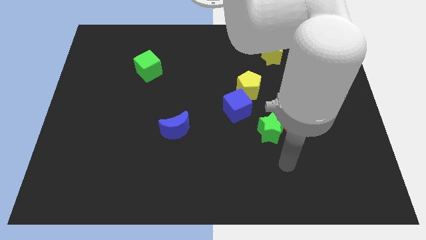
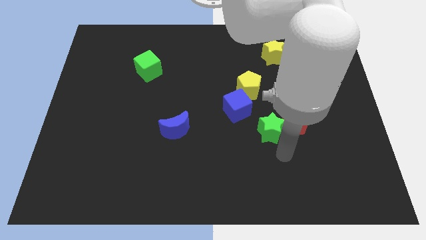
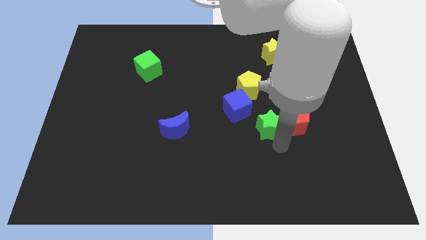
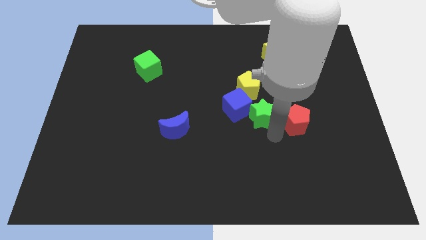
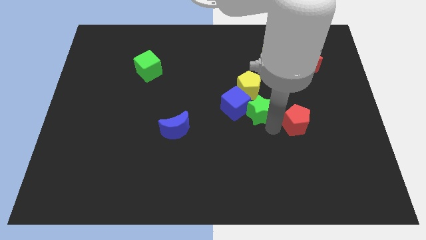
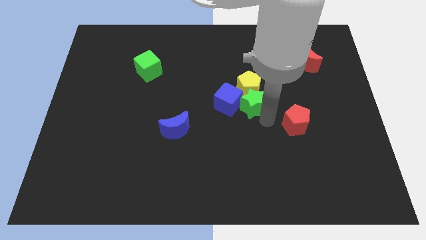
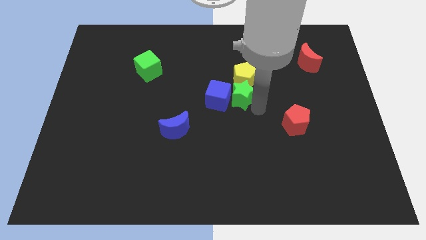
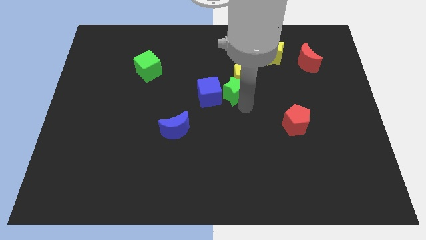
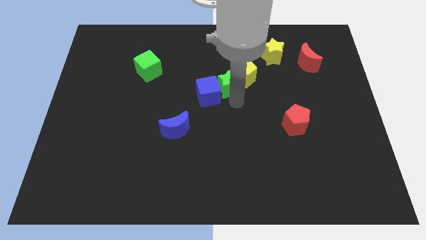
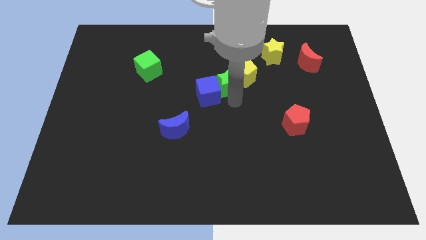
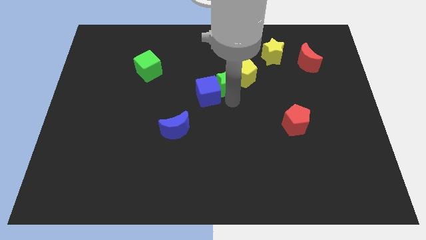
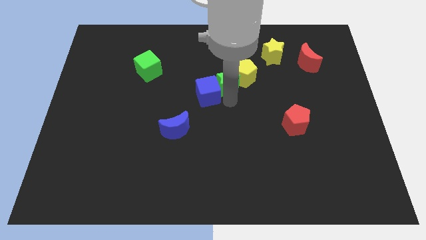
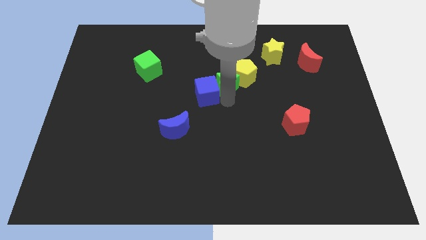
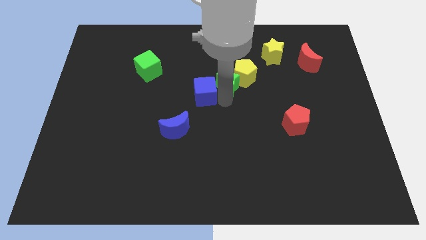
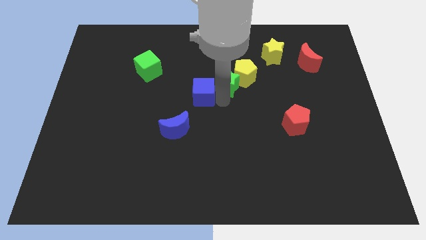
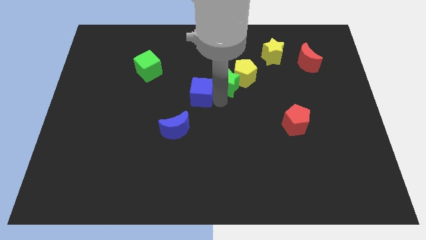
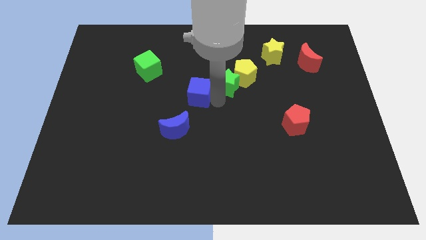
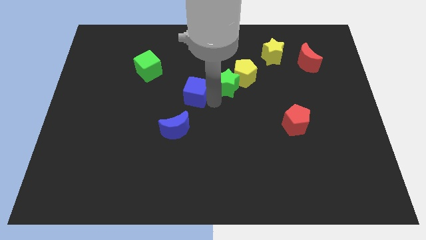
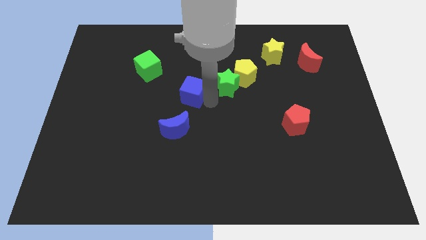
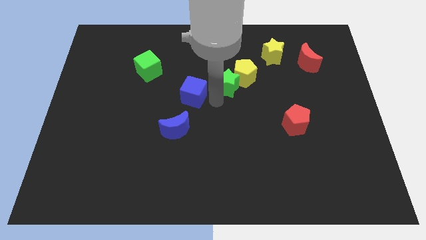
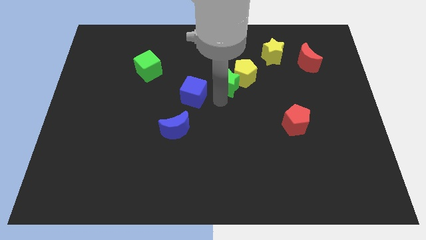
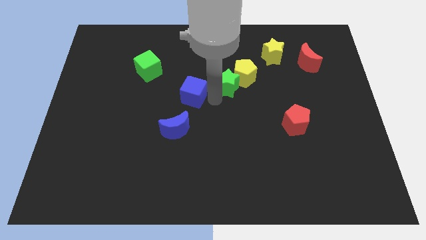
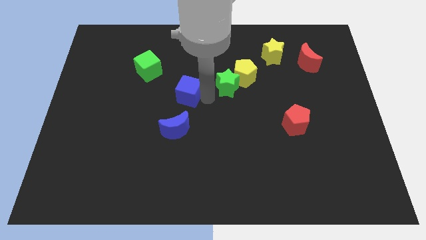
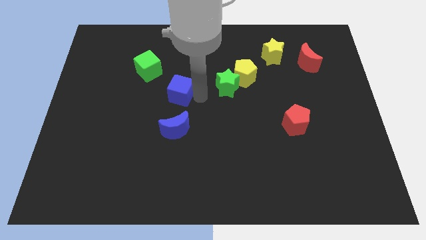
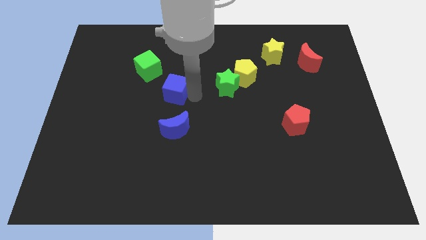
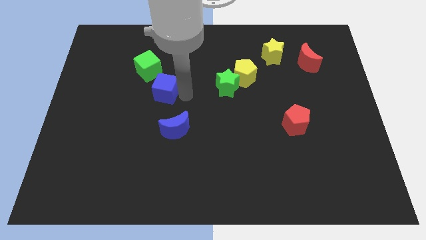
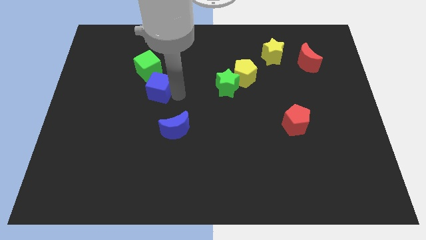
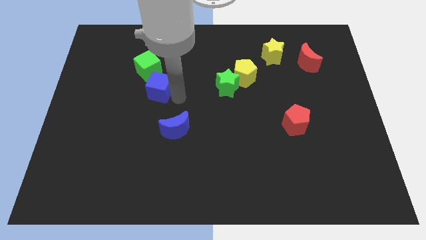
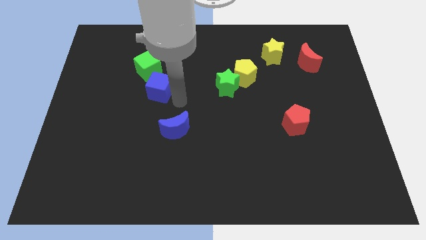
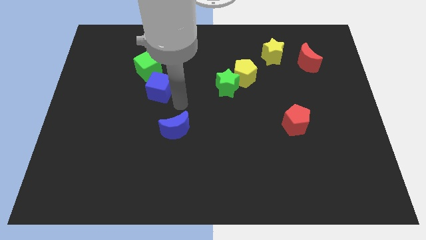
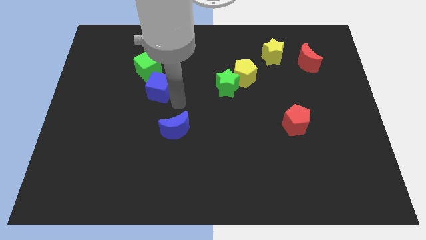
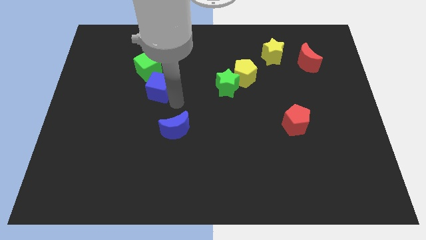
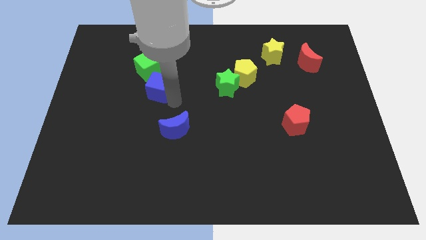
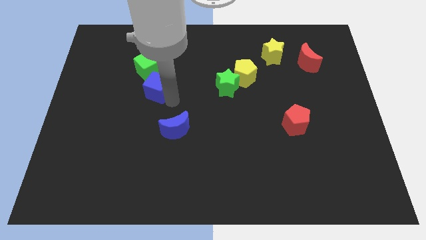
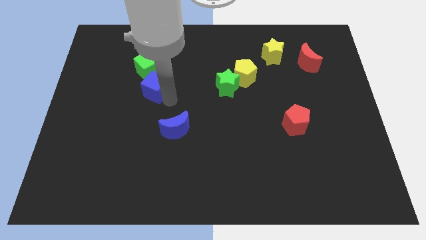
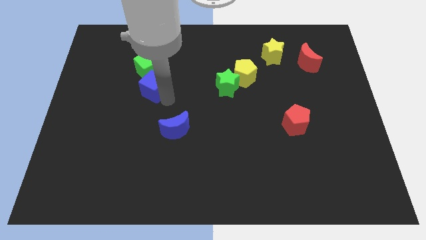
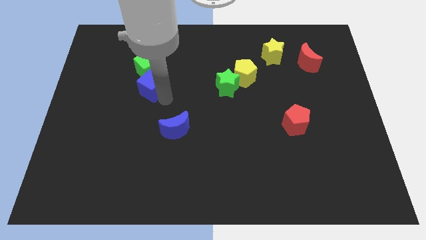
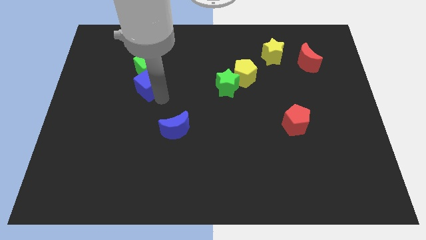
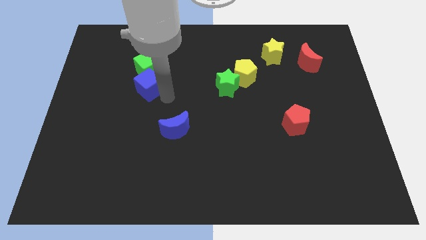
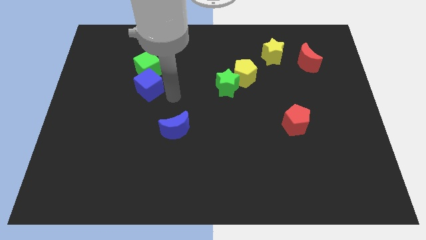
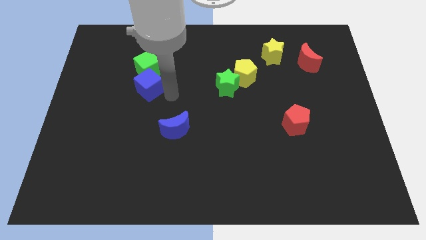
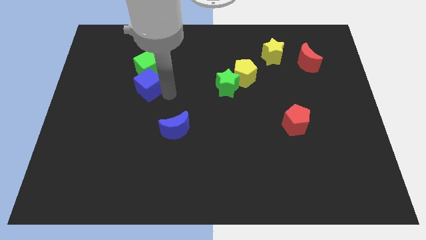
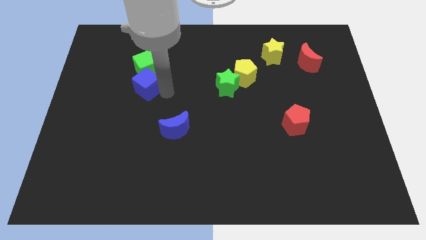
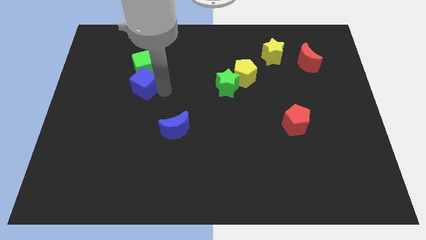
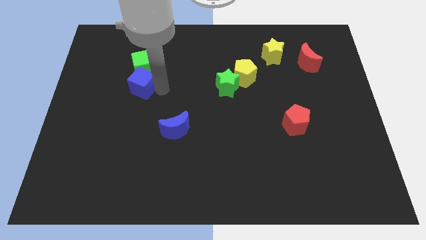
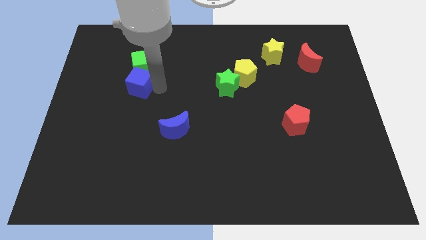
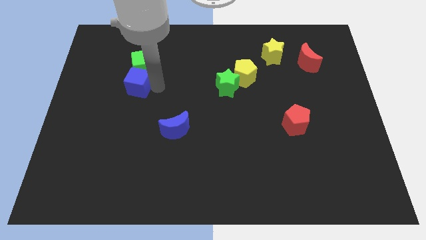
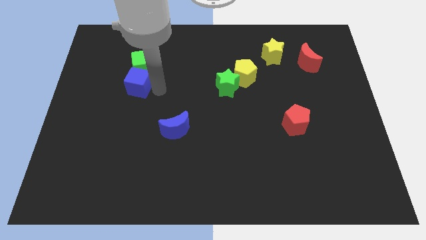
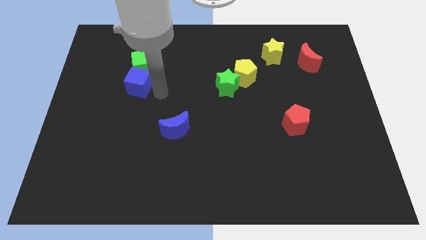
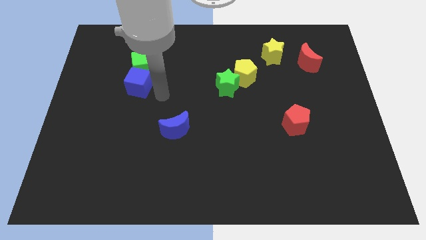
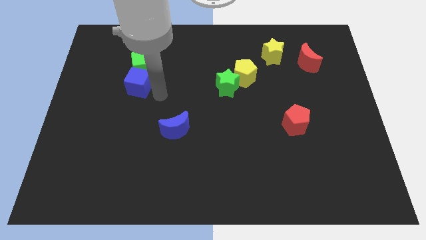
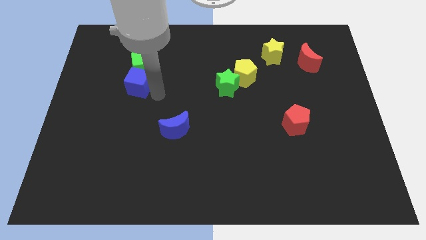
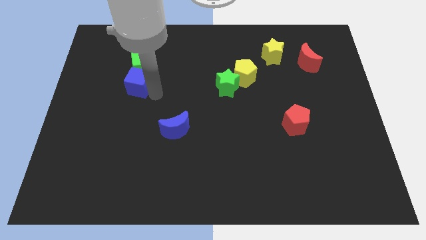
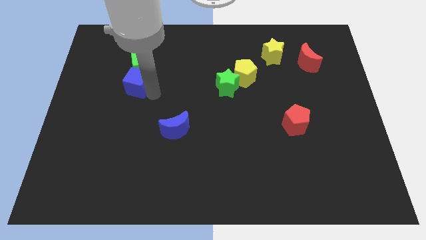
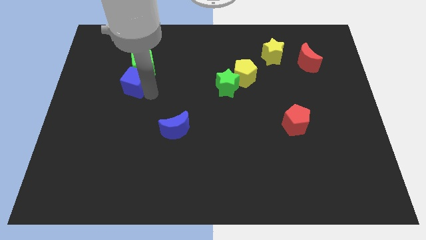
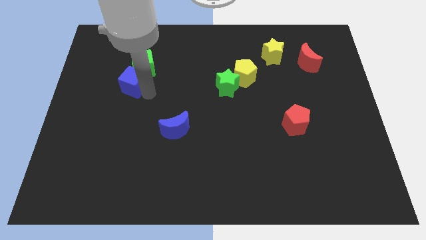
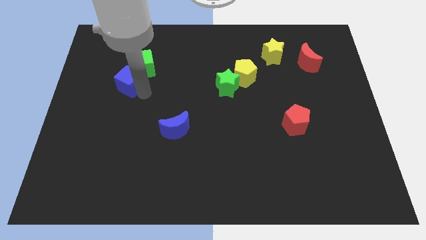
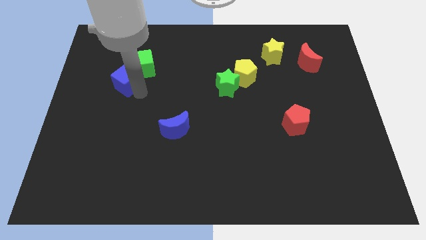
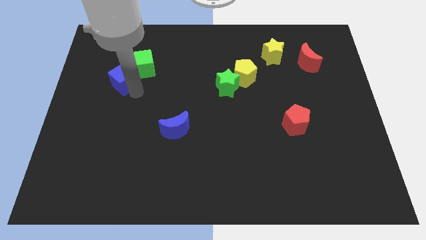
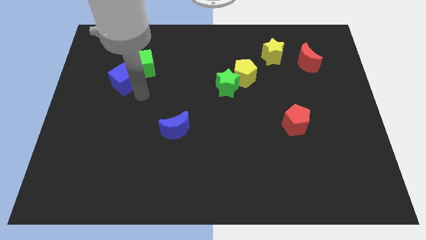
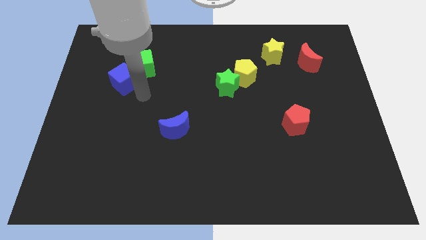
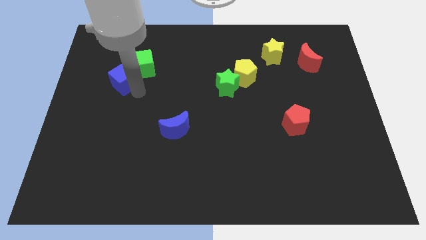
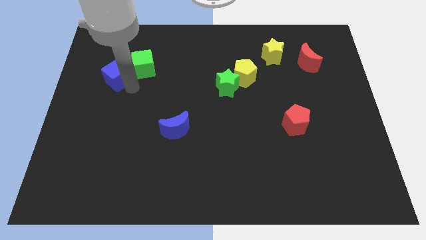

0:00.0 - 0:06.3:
put the blue cube left of the green cube
